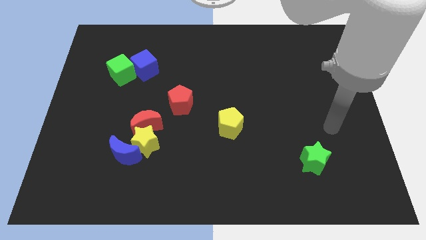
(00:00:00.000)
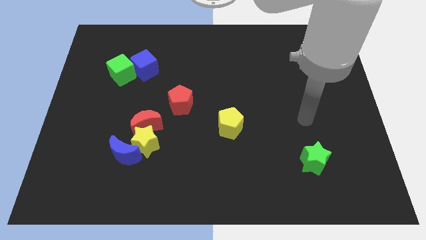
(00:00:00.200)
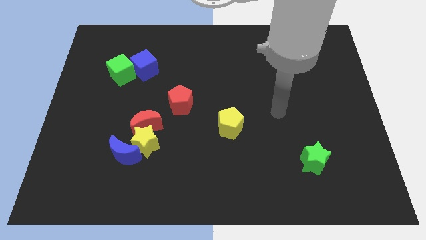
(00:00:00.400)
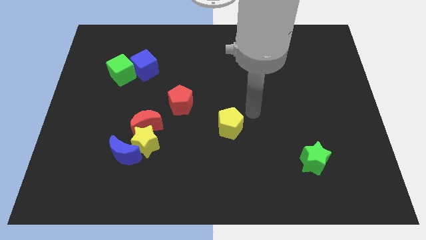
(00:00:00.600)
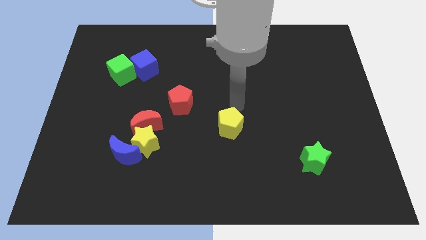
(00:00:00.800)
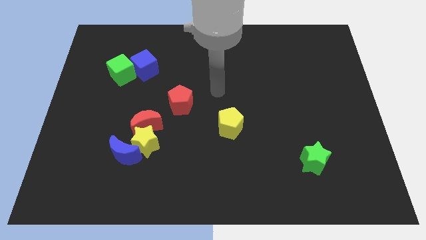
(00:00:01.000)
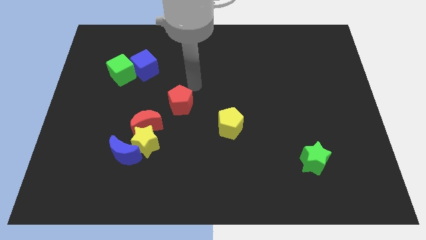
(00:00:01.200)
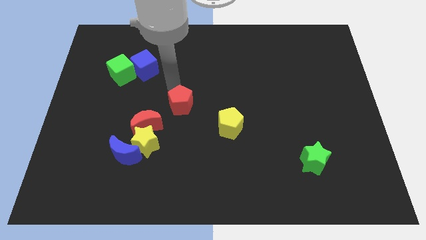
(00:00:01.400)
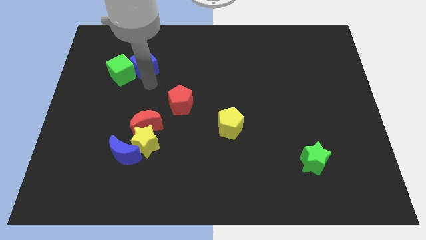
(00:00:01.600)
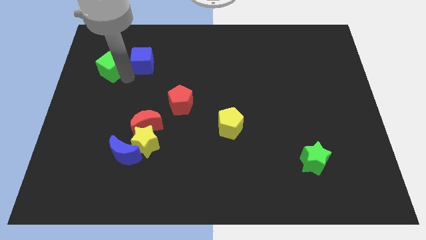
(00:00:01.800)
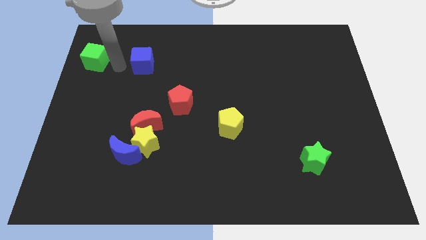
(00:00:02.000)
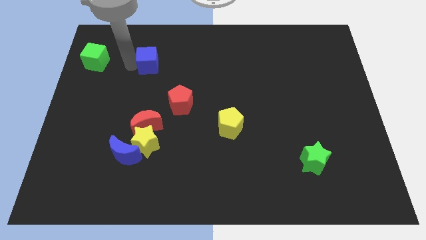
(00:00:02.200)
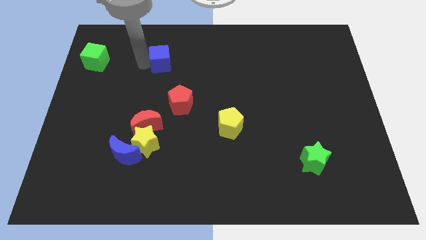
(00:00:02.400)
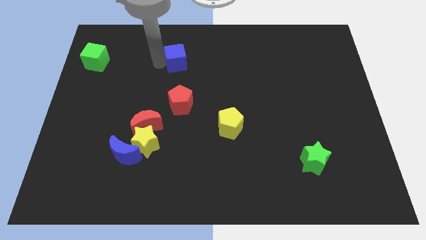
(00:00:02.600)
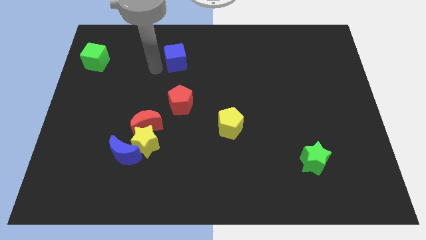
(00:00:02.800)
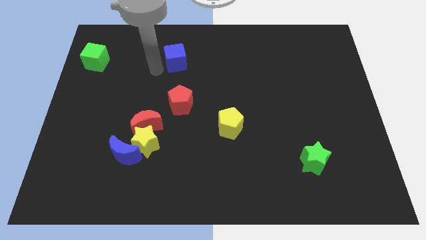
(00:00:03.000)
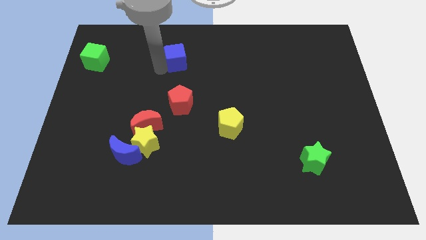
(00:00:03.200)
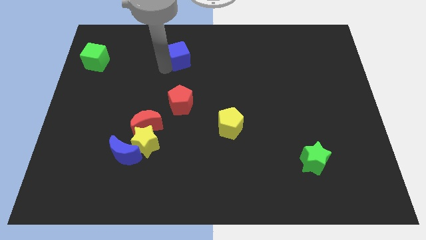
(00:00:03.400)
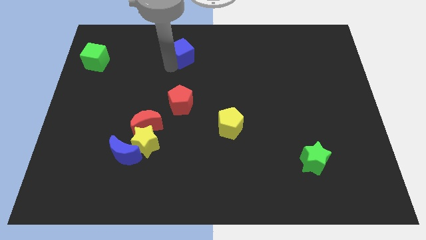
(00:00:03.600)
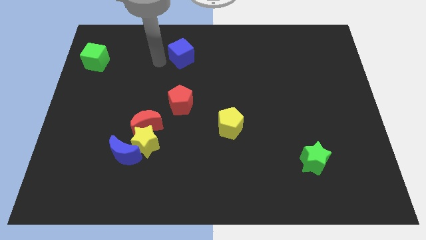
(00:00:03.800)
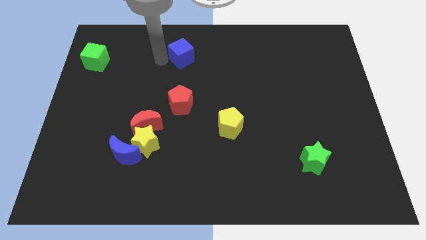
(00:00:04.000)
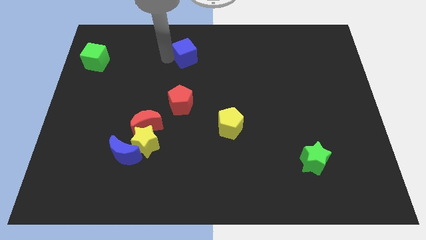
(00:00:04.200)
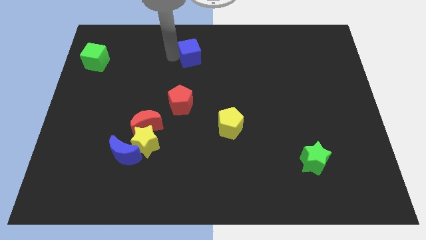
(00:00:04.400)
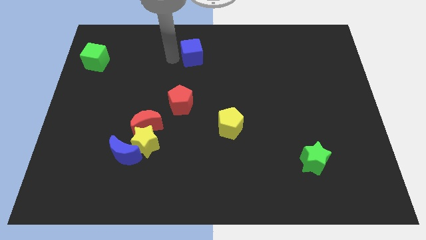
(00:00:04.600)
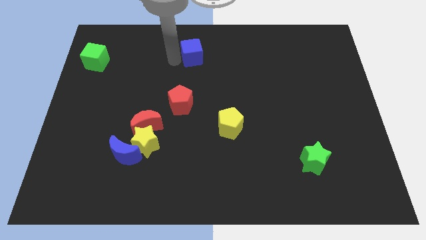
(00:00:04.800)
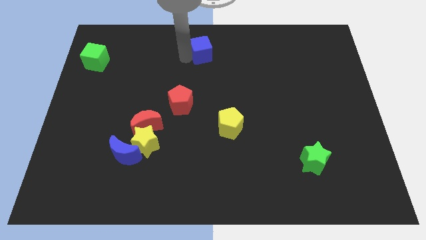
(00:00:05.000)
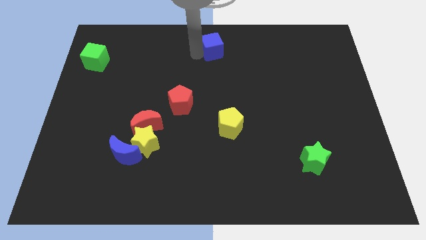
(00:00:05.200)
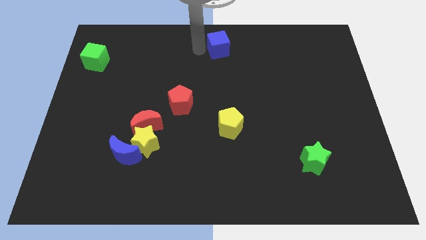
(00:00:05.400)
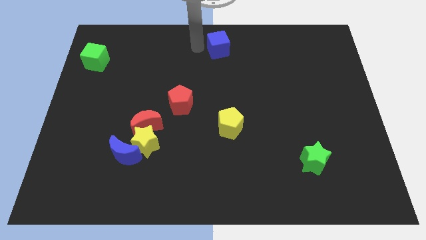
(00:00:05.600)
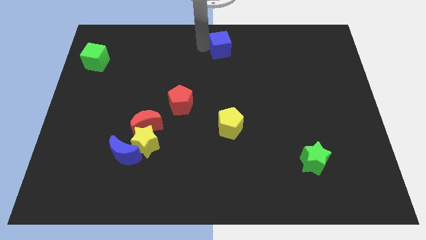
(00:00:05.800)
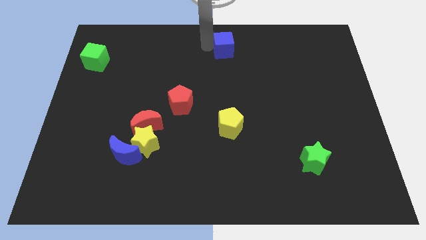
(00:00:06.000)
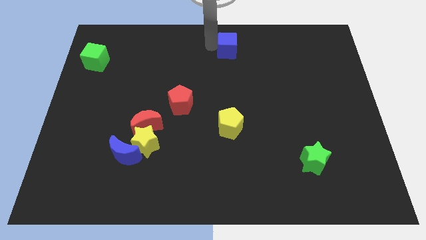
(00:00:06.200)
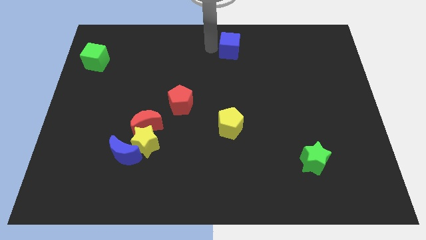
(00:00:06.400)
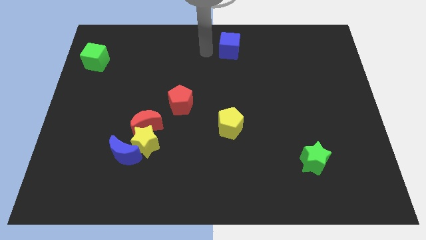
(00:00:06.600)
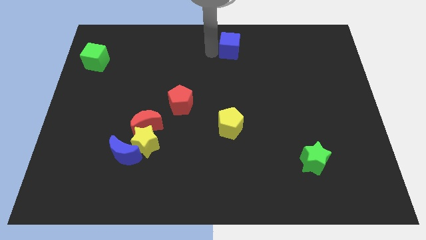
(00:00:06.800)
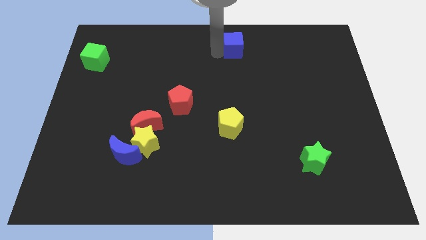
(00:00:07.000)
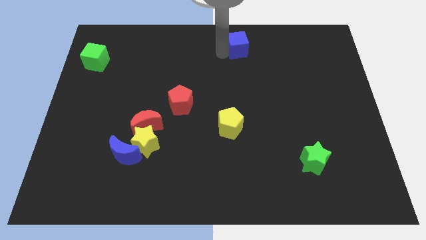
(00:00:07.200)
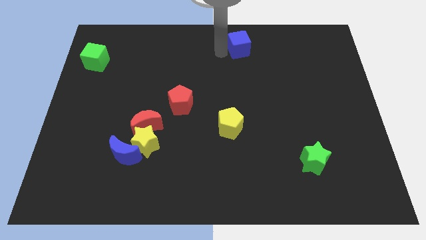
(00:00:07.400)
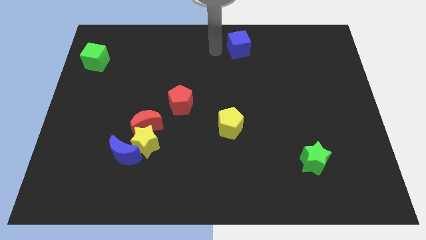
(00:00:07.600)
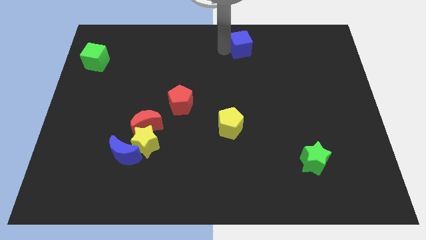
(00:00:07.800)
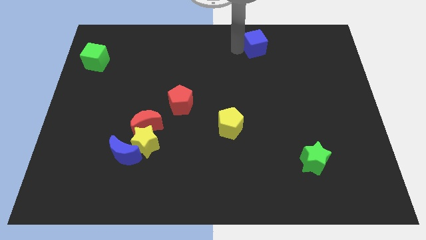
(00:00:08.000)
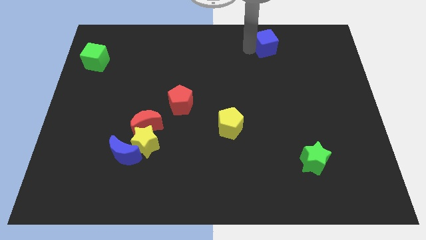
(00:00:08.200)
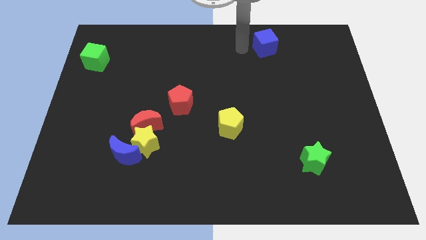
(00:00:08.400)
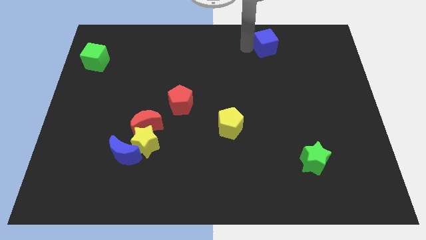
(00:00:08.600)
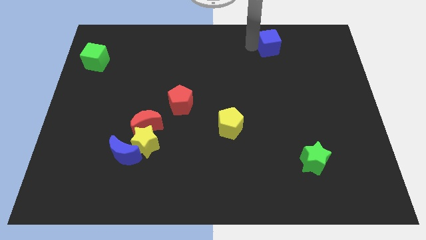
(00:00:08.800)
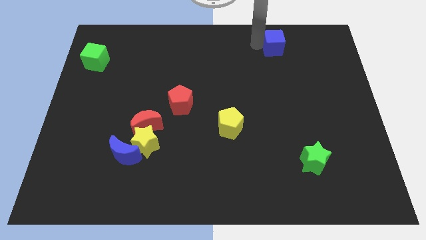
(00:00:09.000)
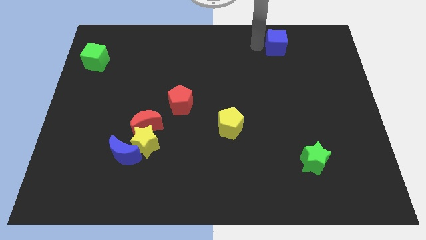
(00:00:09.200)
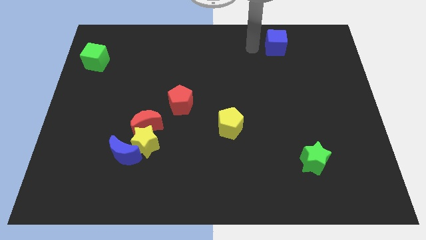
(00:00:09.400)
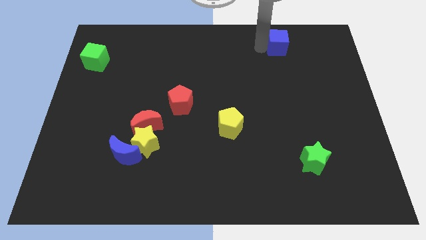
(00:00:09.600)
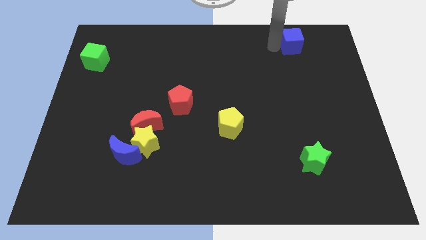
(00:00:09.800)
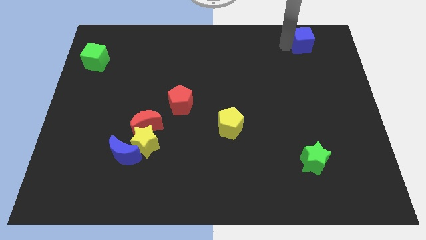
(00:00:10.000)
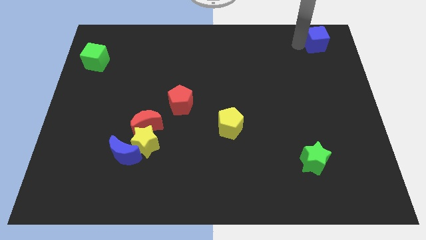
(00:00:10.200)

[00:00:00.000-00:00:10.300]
slide the blue cube to the top right

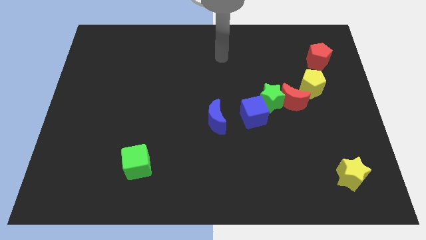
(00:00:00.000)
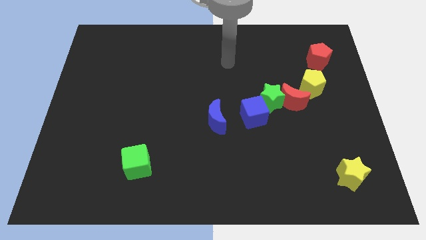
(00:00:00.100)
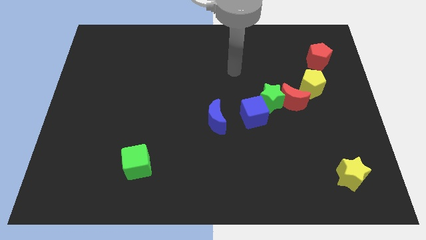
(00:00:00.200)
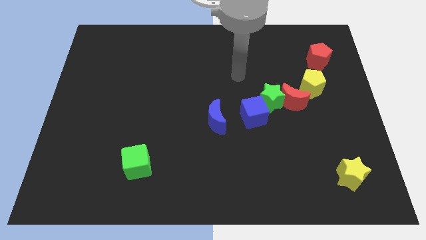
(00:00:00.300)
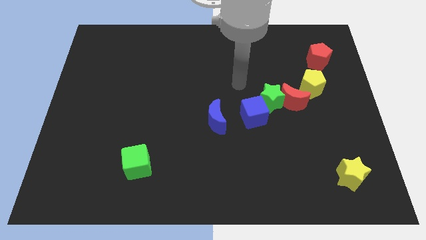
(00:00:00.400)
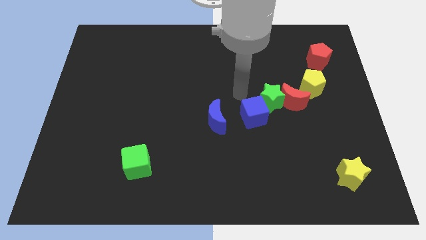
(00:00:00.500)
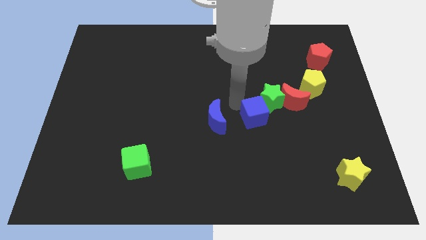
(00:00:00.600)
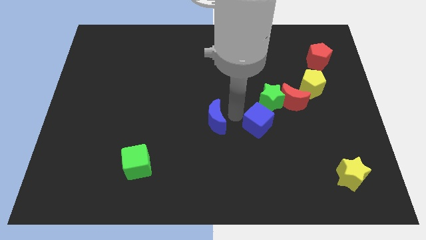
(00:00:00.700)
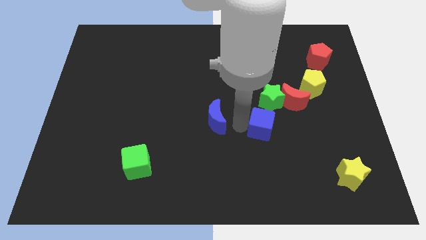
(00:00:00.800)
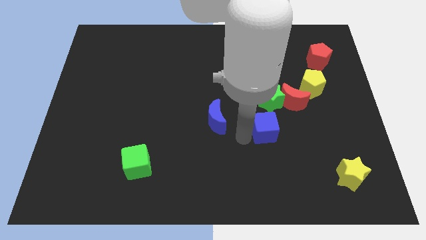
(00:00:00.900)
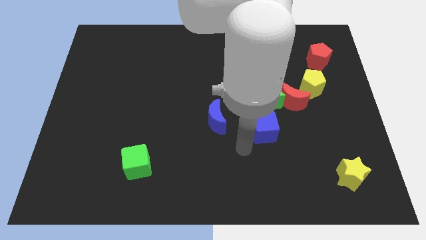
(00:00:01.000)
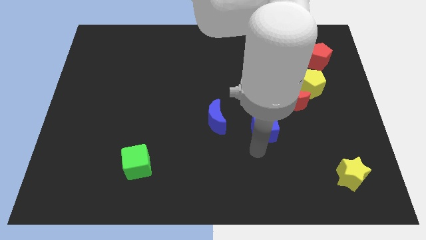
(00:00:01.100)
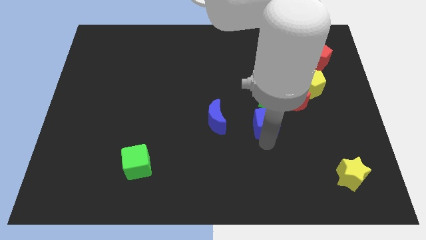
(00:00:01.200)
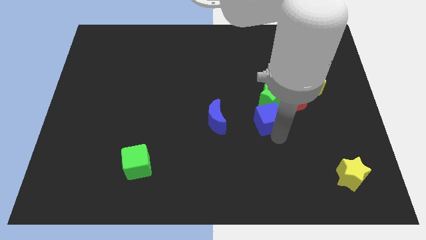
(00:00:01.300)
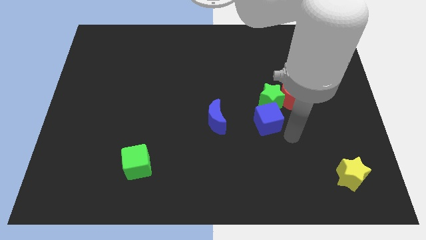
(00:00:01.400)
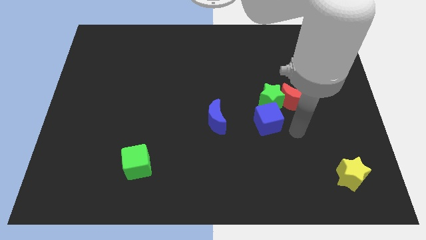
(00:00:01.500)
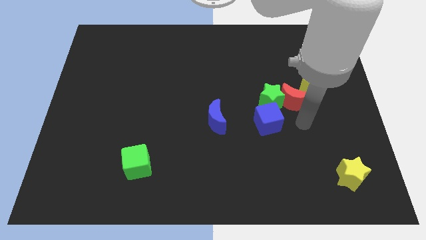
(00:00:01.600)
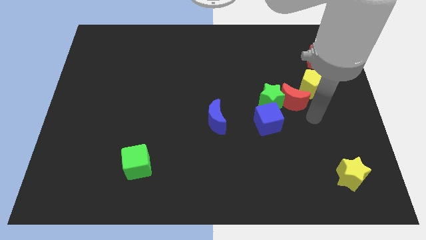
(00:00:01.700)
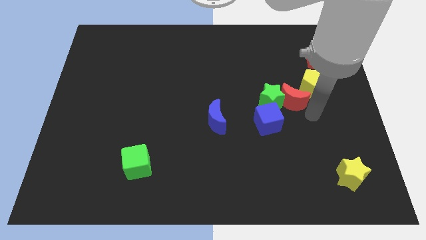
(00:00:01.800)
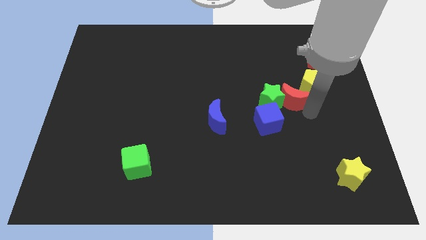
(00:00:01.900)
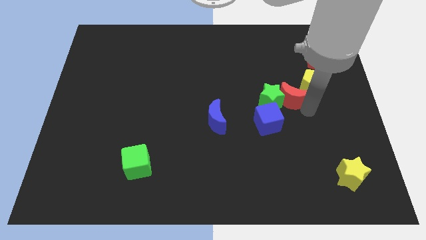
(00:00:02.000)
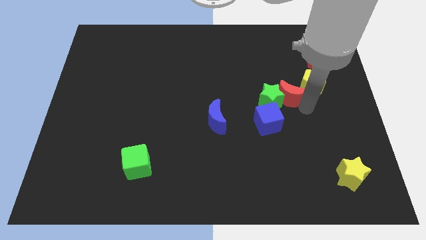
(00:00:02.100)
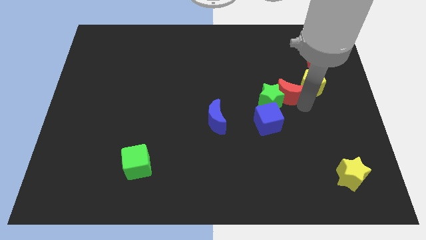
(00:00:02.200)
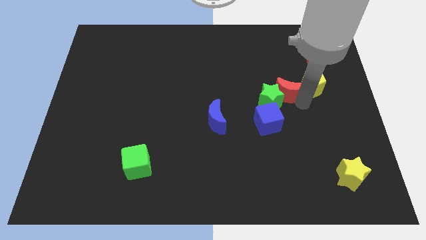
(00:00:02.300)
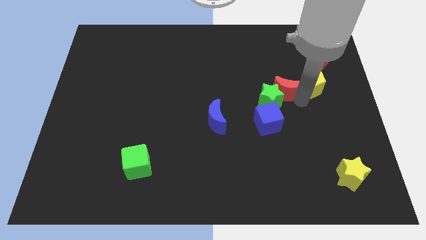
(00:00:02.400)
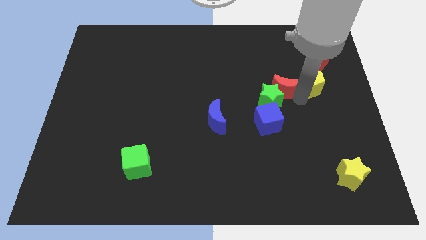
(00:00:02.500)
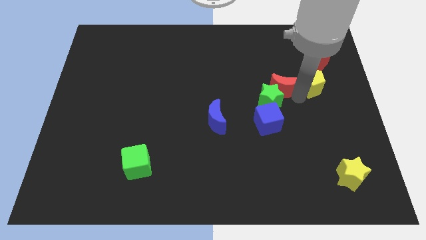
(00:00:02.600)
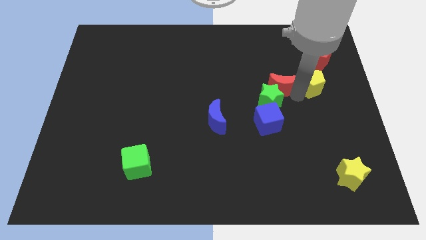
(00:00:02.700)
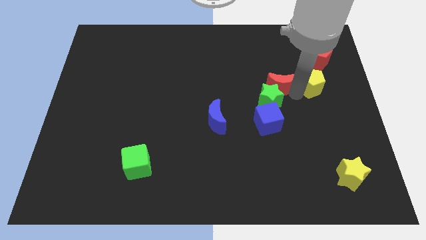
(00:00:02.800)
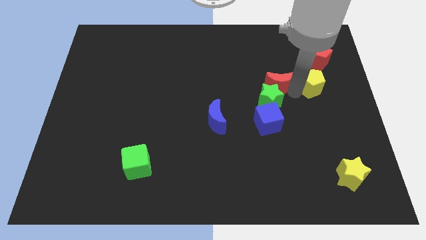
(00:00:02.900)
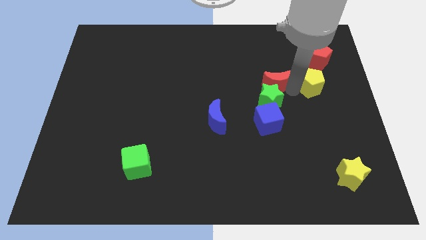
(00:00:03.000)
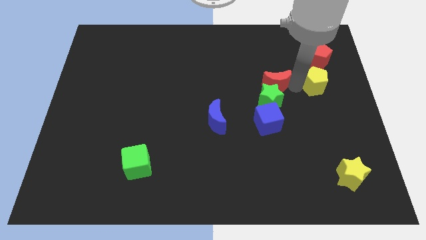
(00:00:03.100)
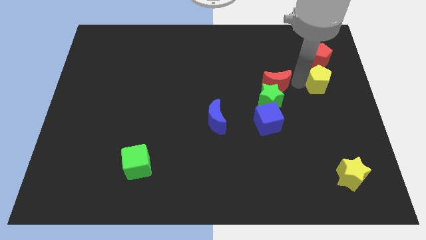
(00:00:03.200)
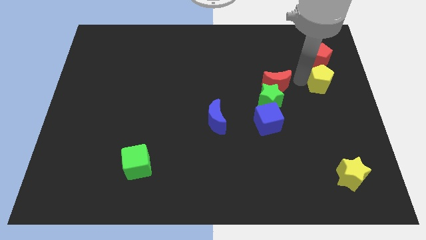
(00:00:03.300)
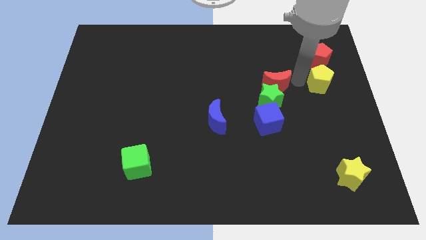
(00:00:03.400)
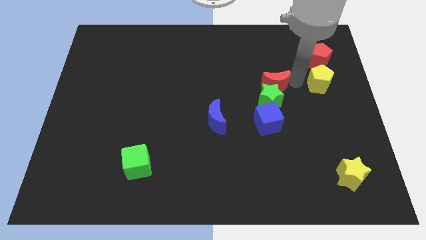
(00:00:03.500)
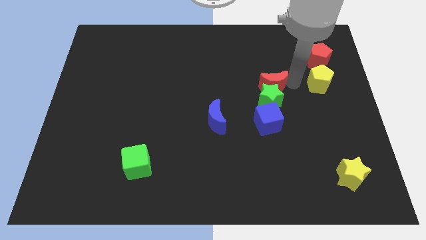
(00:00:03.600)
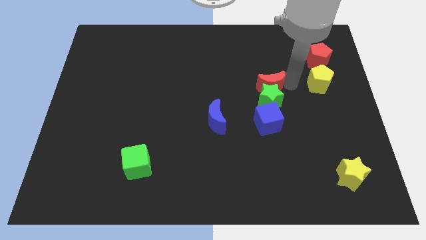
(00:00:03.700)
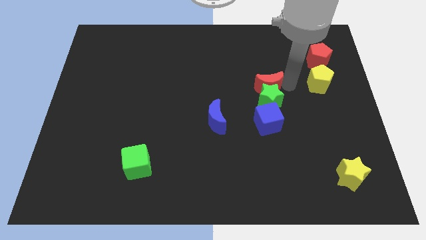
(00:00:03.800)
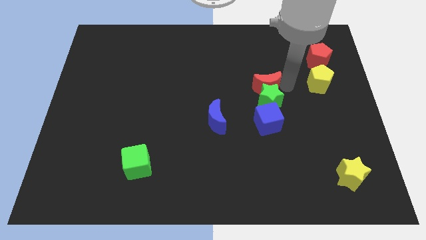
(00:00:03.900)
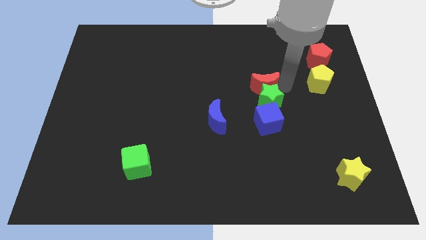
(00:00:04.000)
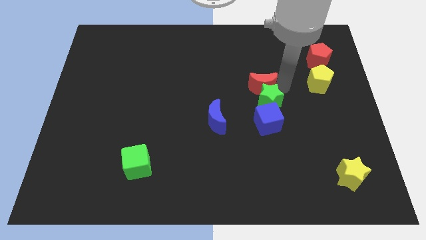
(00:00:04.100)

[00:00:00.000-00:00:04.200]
slide the red moon to the center
